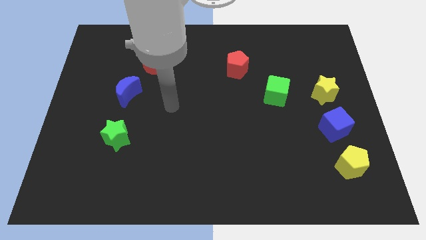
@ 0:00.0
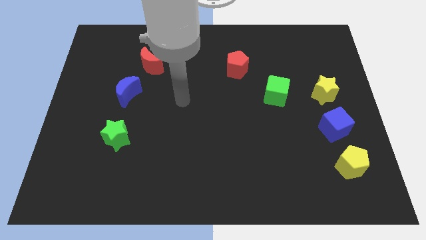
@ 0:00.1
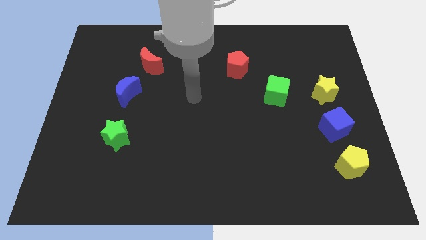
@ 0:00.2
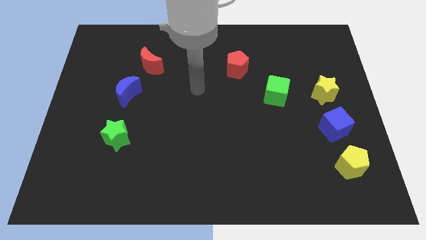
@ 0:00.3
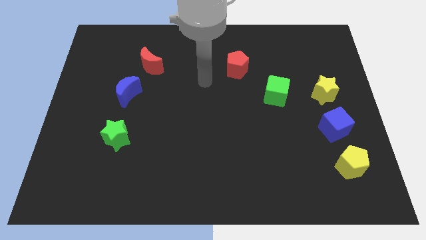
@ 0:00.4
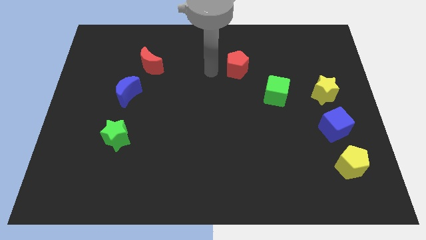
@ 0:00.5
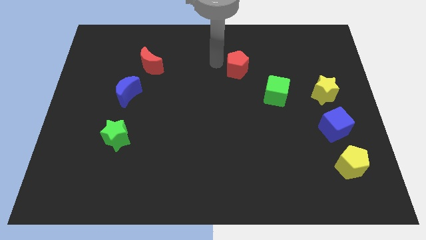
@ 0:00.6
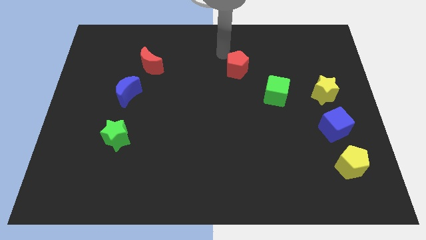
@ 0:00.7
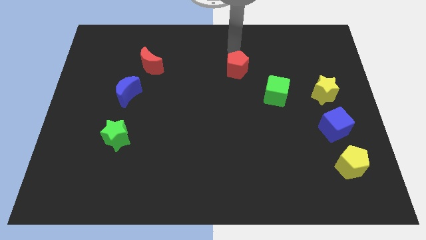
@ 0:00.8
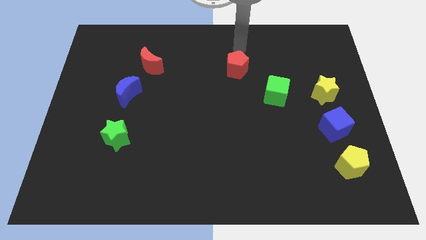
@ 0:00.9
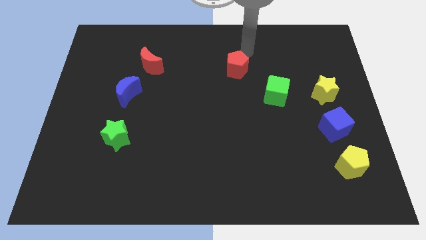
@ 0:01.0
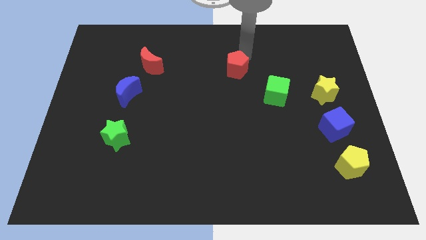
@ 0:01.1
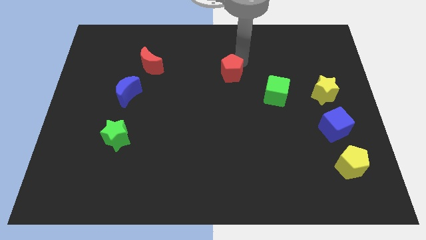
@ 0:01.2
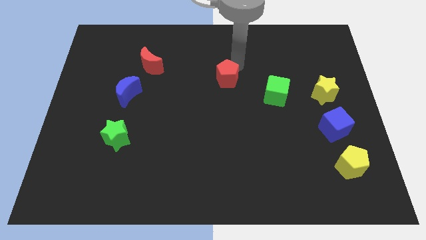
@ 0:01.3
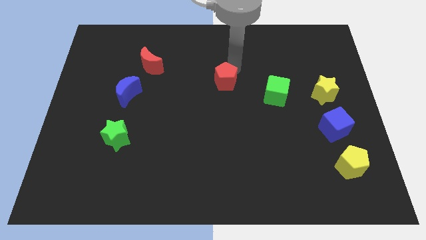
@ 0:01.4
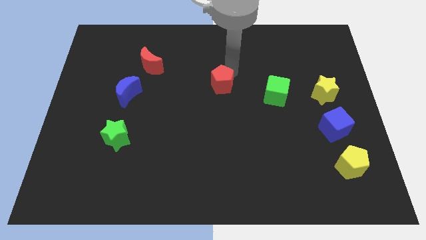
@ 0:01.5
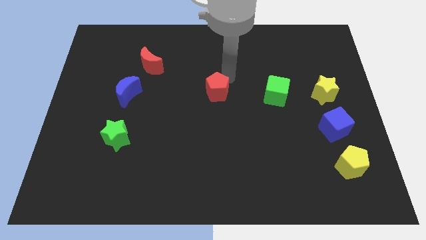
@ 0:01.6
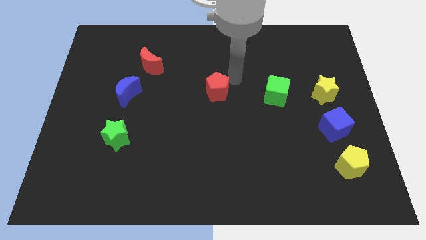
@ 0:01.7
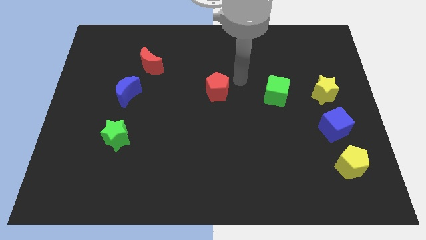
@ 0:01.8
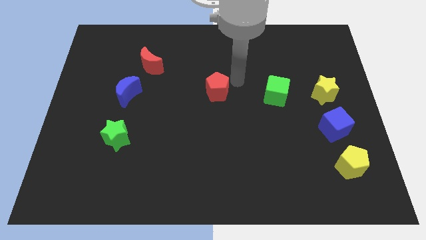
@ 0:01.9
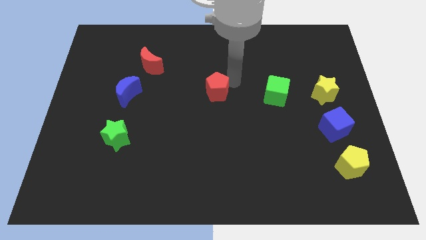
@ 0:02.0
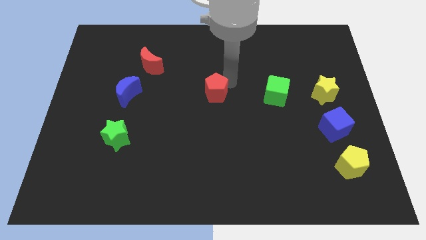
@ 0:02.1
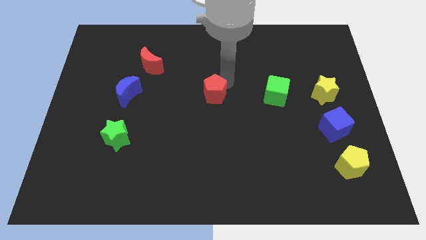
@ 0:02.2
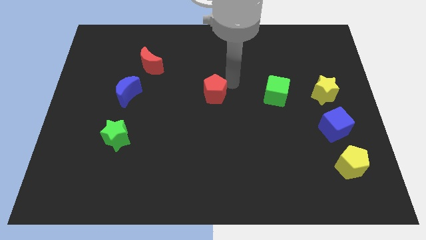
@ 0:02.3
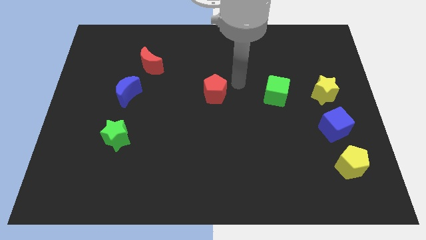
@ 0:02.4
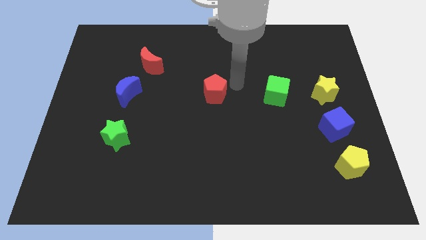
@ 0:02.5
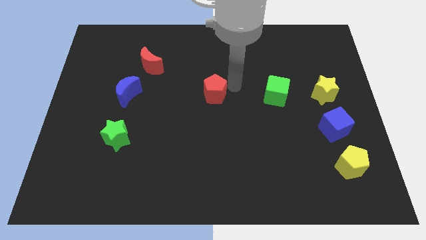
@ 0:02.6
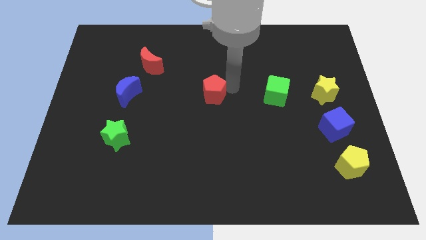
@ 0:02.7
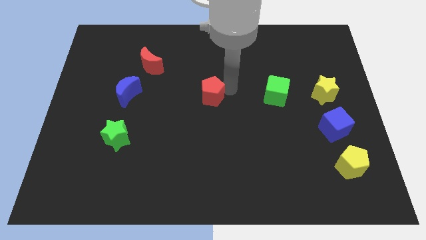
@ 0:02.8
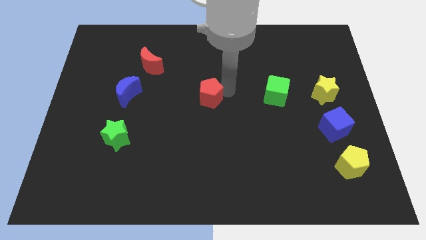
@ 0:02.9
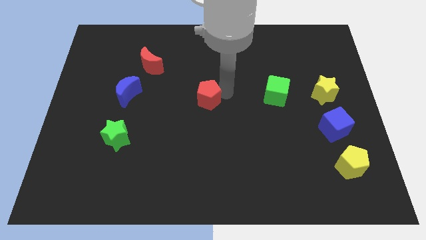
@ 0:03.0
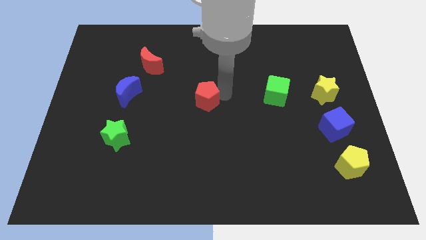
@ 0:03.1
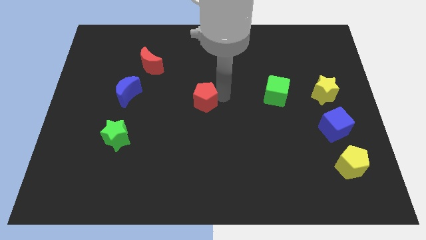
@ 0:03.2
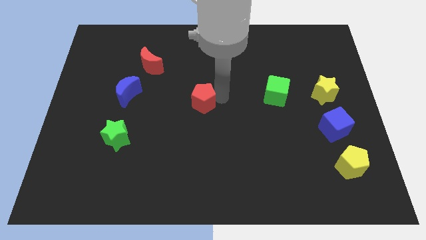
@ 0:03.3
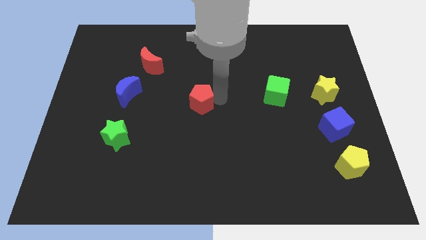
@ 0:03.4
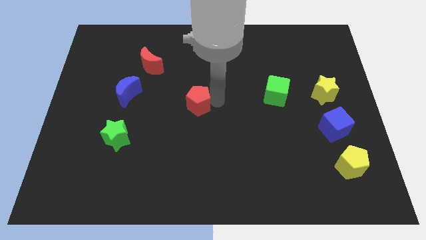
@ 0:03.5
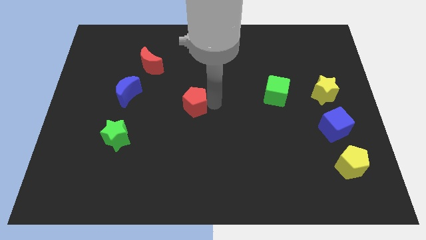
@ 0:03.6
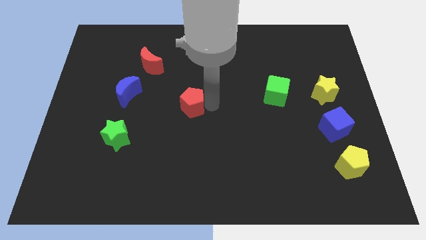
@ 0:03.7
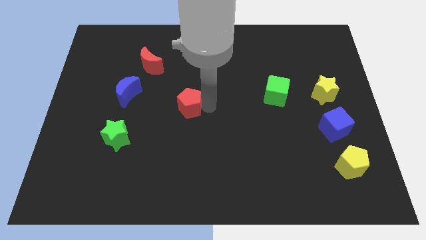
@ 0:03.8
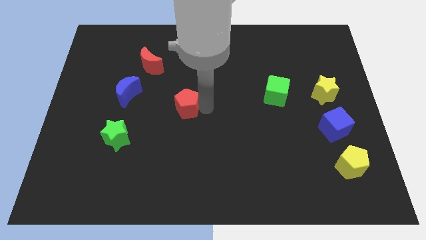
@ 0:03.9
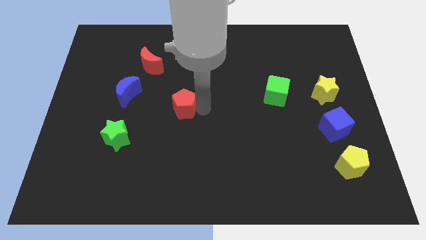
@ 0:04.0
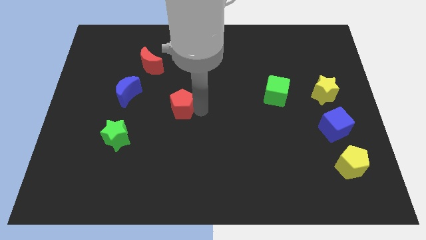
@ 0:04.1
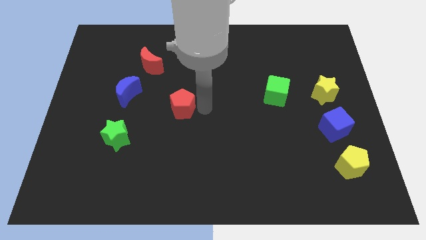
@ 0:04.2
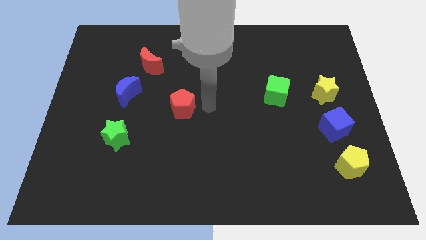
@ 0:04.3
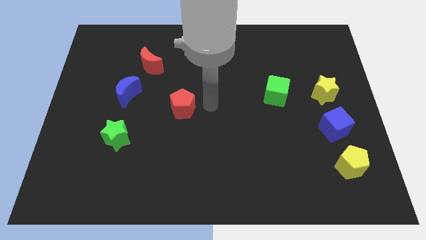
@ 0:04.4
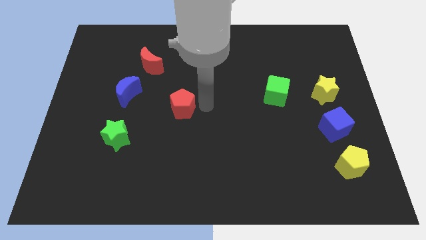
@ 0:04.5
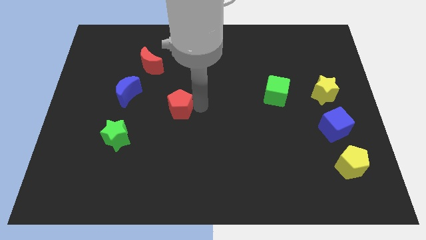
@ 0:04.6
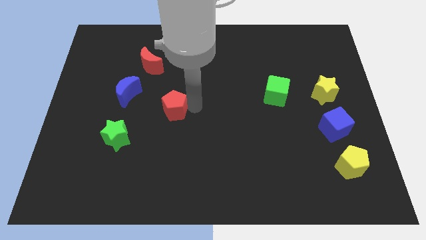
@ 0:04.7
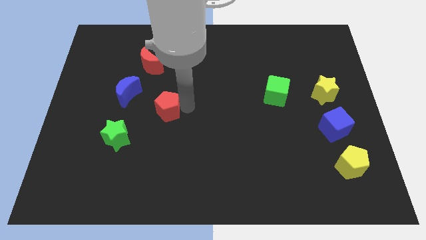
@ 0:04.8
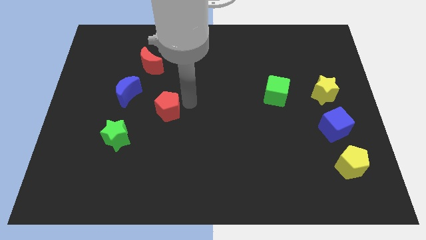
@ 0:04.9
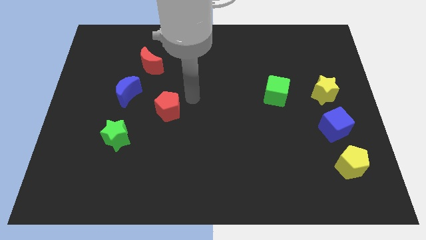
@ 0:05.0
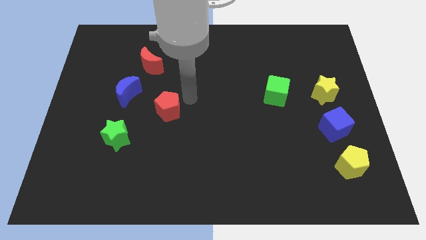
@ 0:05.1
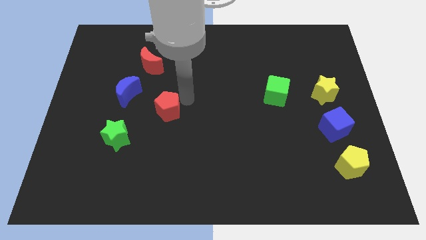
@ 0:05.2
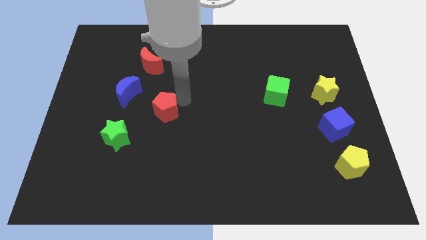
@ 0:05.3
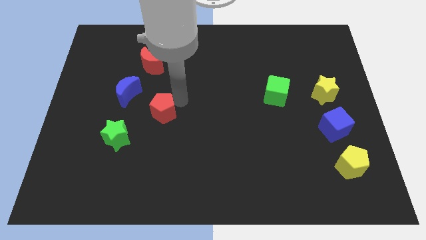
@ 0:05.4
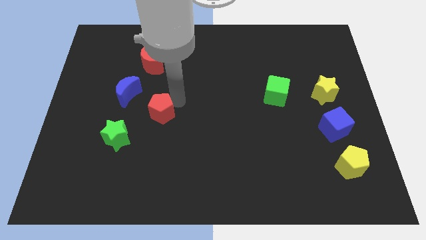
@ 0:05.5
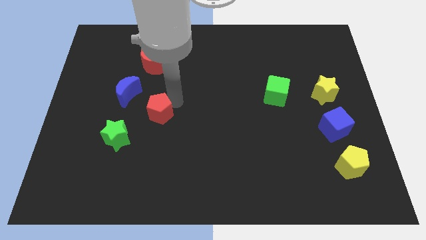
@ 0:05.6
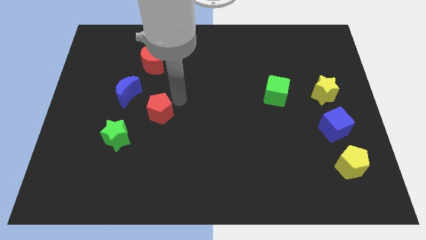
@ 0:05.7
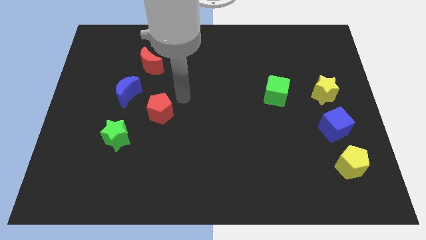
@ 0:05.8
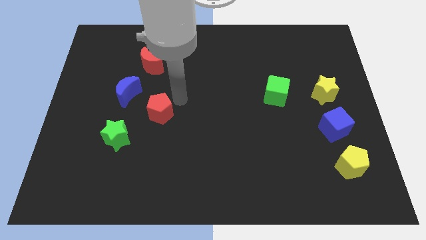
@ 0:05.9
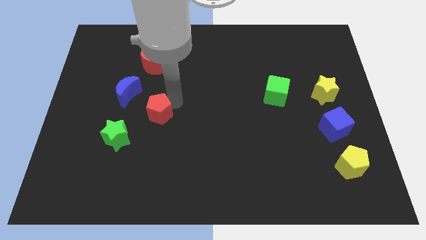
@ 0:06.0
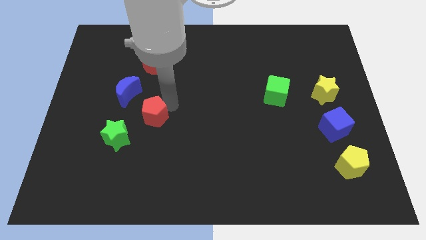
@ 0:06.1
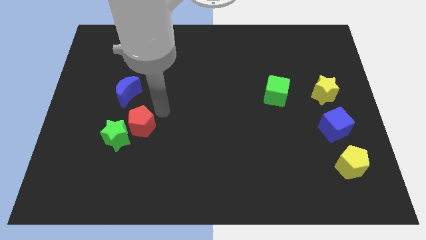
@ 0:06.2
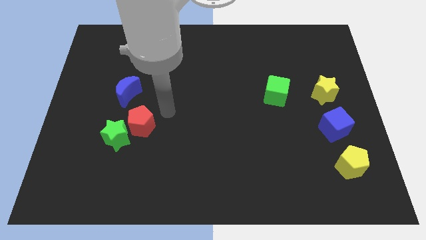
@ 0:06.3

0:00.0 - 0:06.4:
slide the red pentagon close to the green star

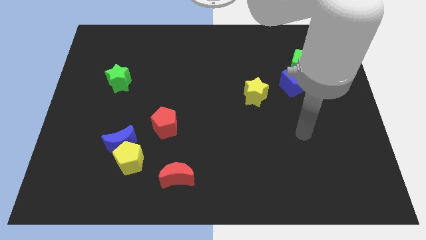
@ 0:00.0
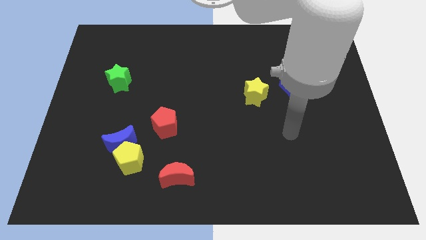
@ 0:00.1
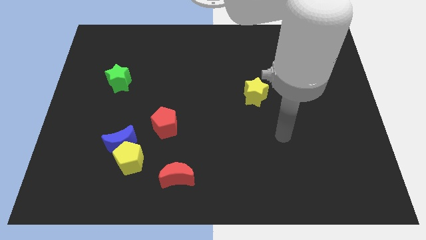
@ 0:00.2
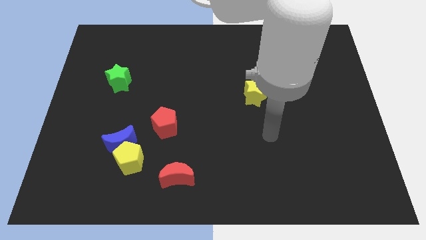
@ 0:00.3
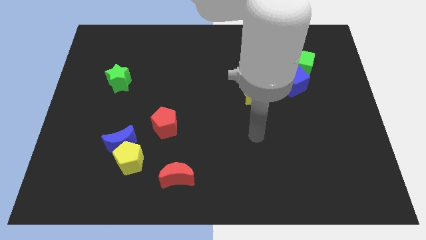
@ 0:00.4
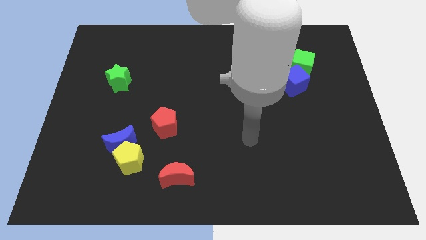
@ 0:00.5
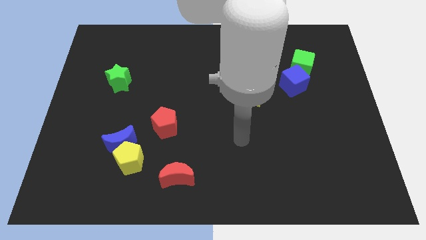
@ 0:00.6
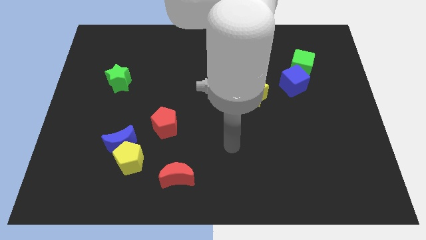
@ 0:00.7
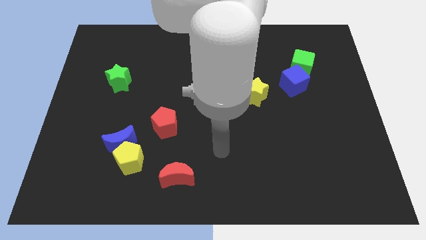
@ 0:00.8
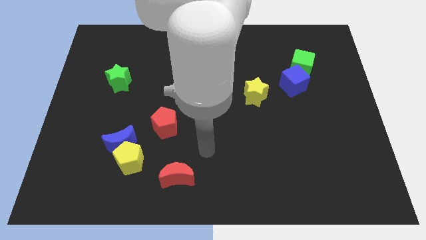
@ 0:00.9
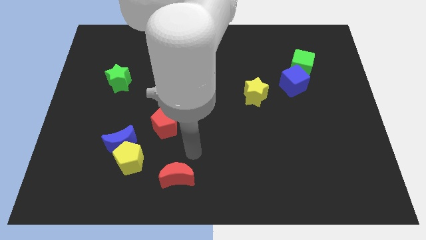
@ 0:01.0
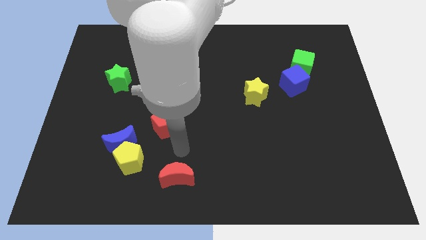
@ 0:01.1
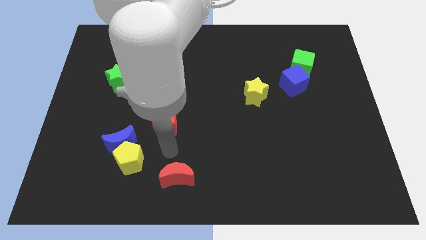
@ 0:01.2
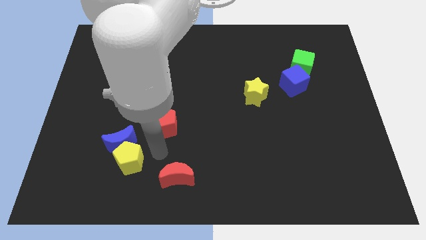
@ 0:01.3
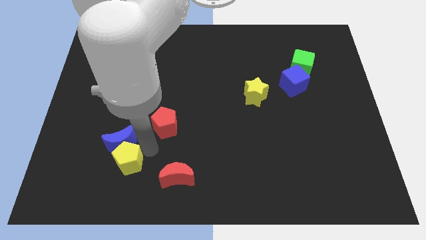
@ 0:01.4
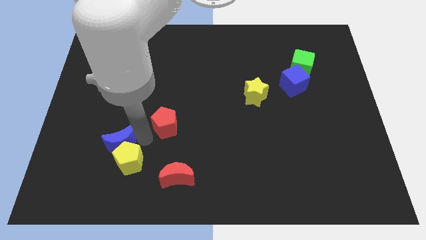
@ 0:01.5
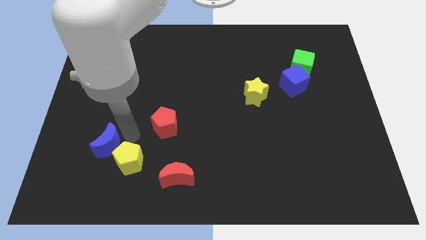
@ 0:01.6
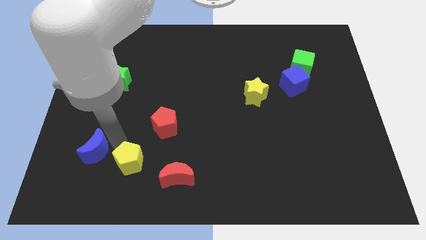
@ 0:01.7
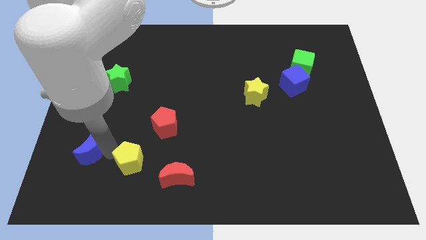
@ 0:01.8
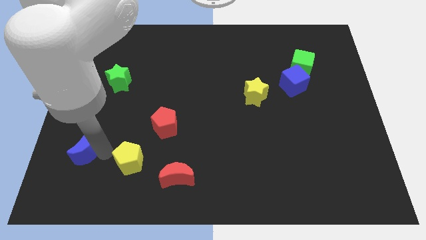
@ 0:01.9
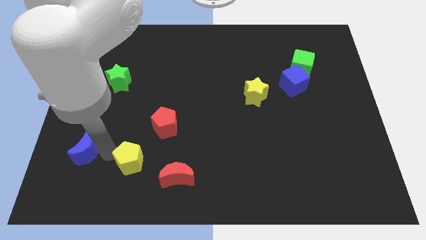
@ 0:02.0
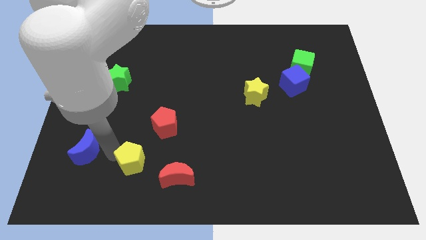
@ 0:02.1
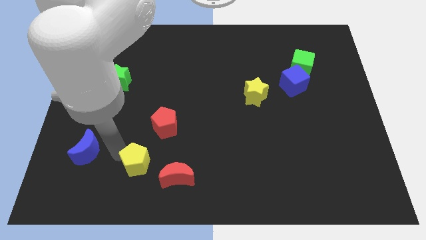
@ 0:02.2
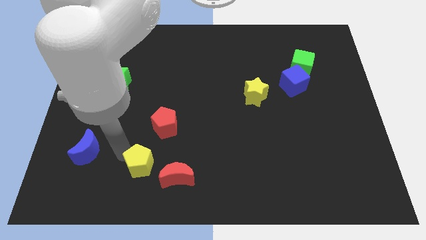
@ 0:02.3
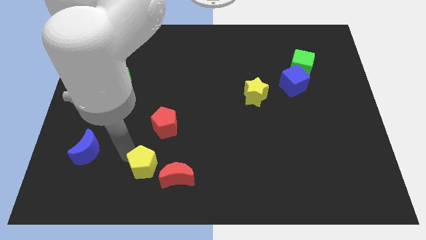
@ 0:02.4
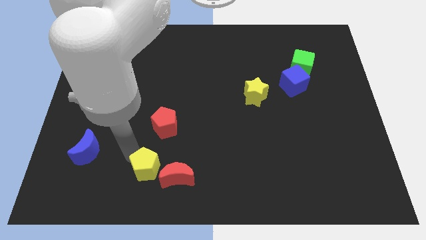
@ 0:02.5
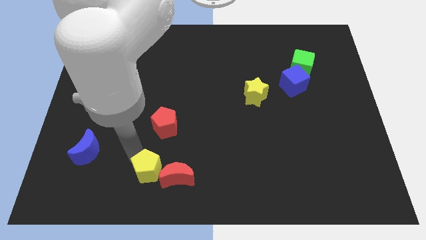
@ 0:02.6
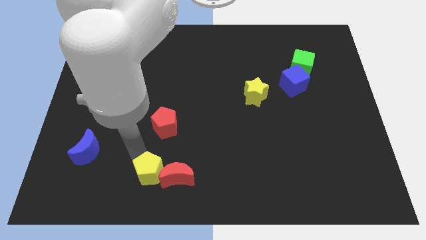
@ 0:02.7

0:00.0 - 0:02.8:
slide the yellow pentagon to the red moon
